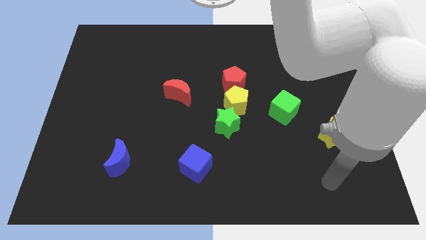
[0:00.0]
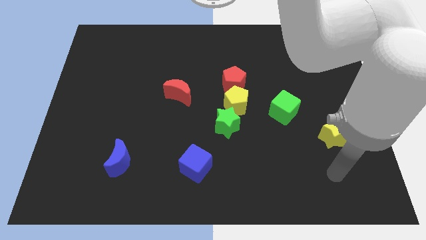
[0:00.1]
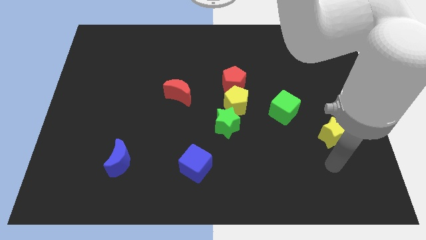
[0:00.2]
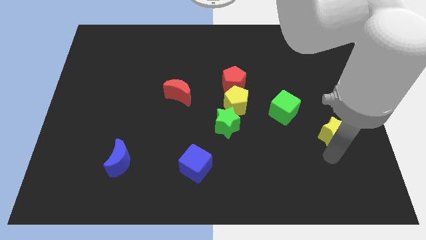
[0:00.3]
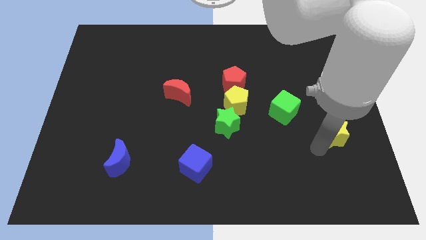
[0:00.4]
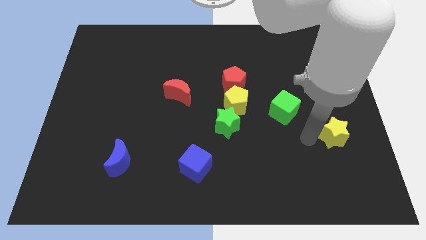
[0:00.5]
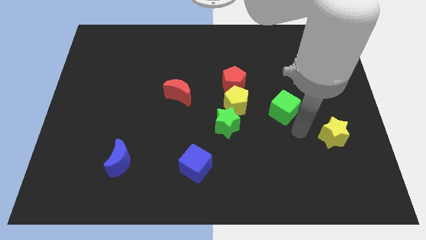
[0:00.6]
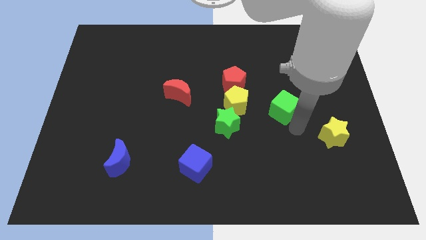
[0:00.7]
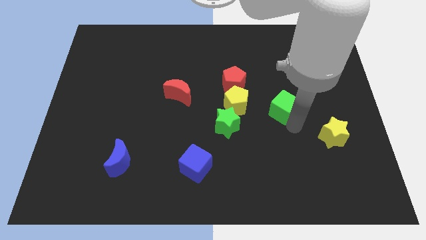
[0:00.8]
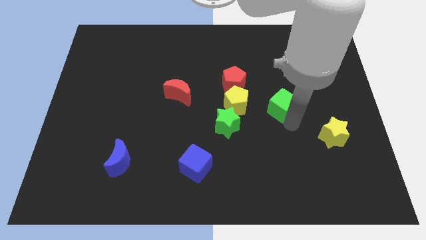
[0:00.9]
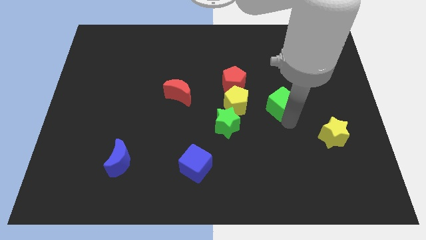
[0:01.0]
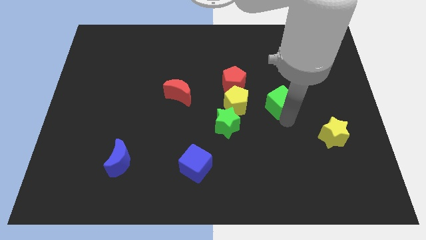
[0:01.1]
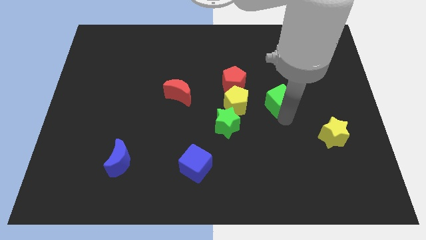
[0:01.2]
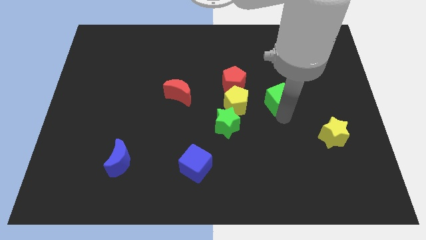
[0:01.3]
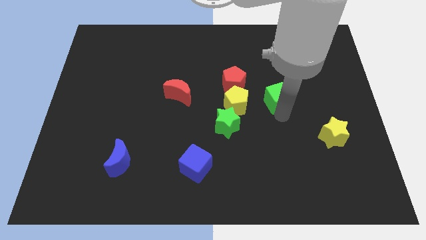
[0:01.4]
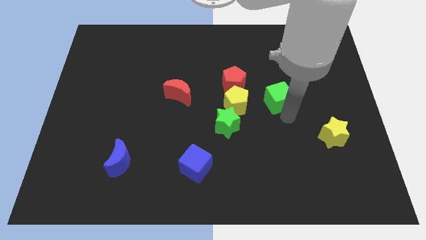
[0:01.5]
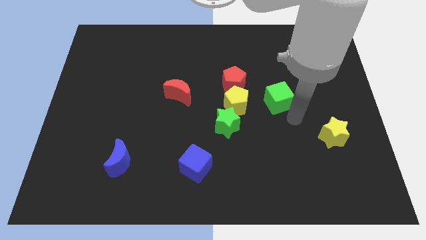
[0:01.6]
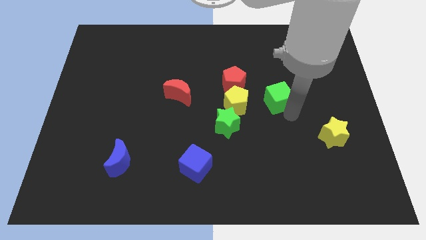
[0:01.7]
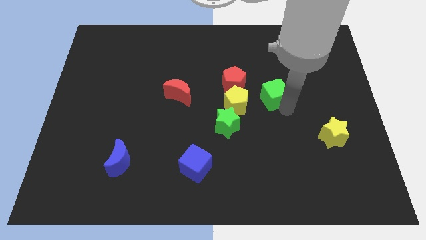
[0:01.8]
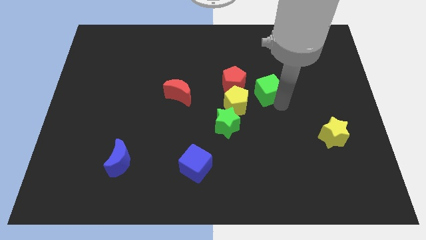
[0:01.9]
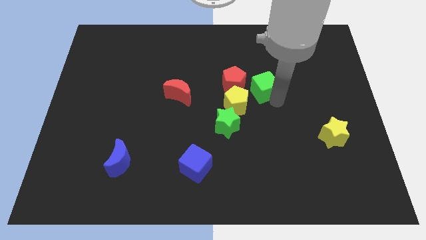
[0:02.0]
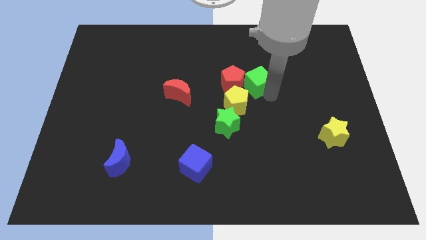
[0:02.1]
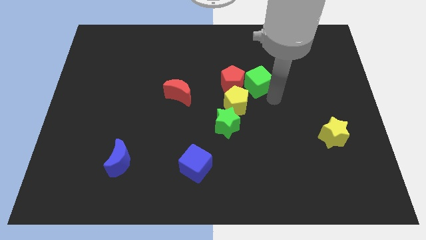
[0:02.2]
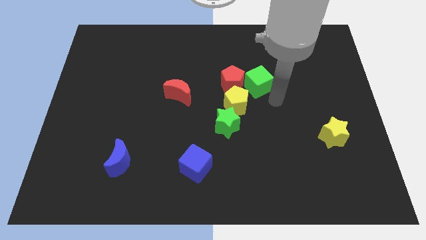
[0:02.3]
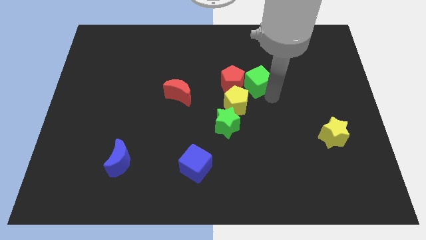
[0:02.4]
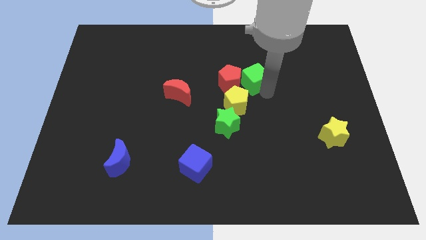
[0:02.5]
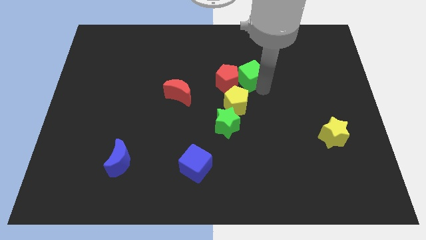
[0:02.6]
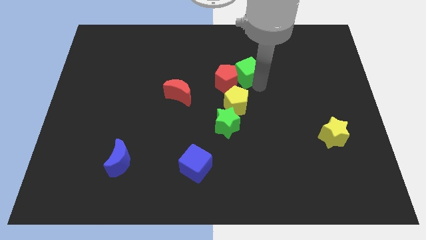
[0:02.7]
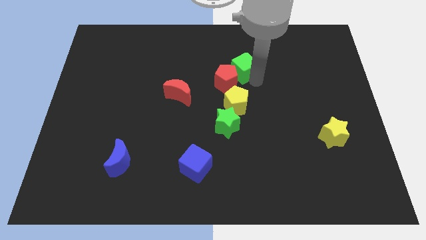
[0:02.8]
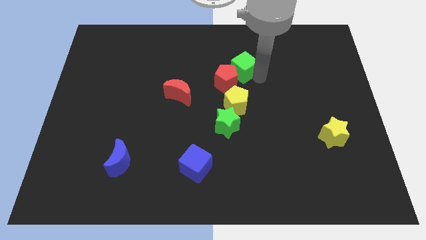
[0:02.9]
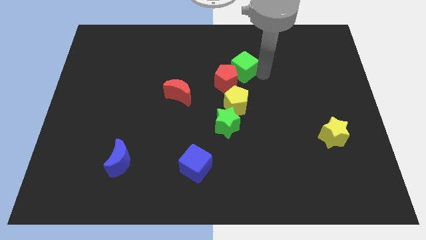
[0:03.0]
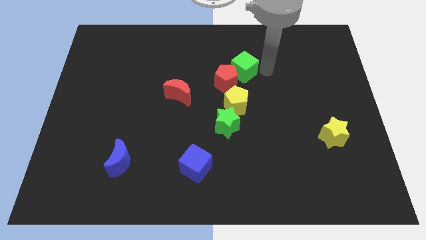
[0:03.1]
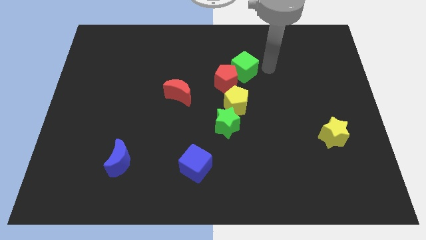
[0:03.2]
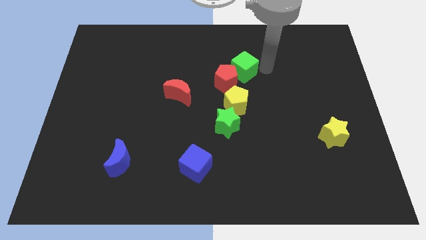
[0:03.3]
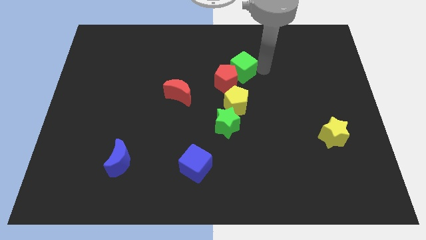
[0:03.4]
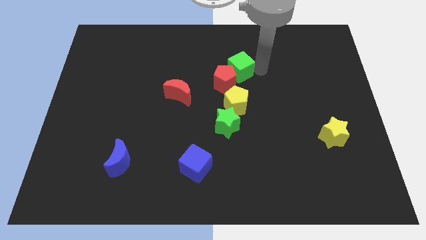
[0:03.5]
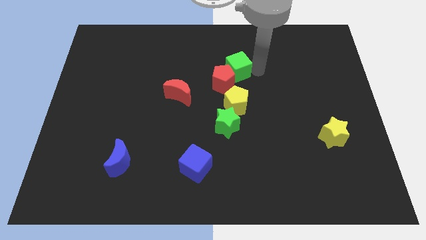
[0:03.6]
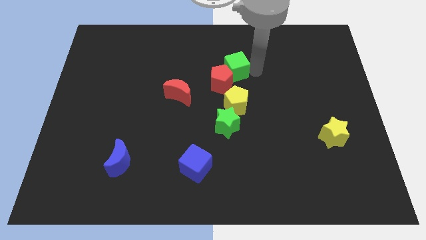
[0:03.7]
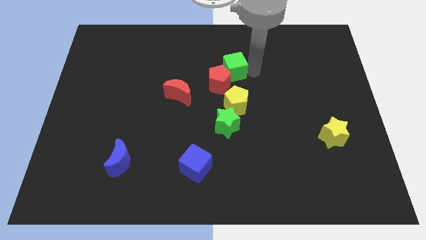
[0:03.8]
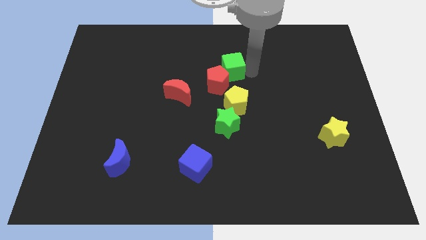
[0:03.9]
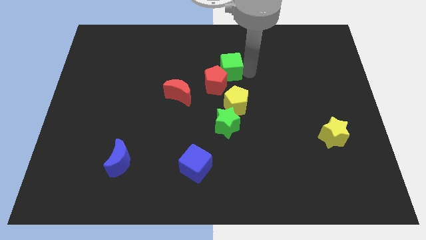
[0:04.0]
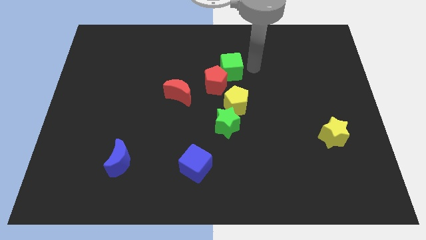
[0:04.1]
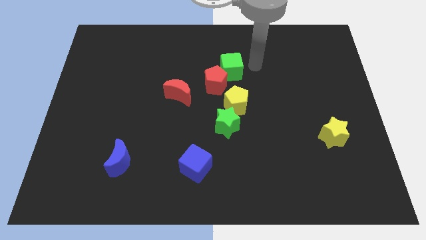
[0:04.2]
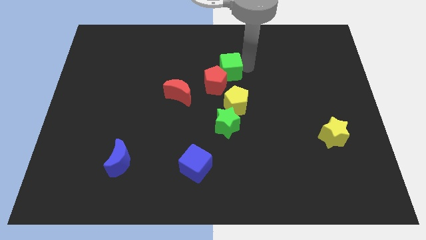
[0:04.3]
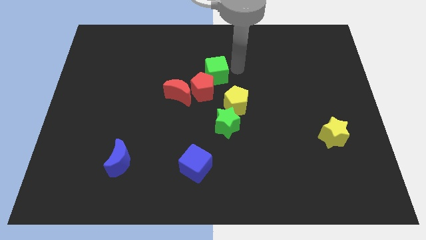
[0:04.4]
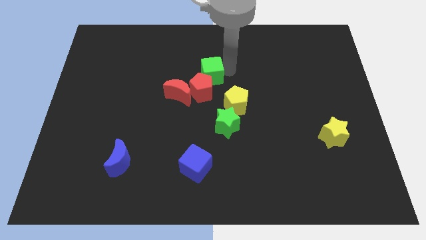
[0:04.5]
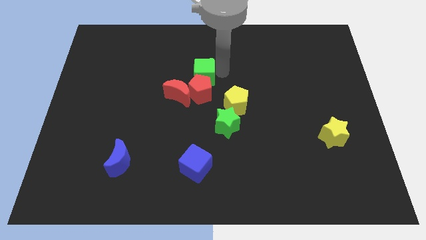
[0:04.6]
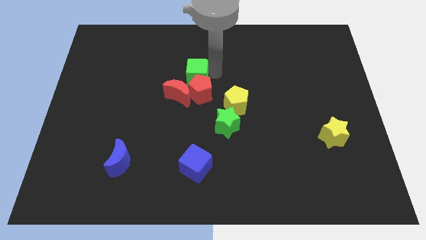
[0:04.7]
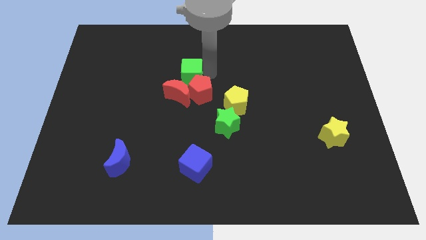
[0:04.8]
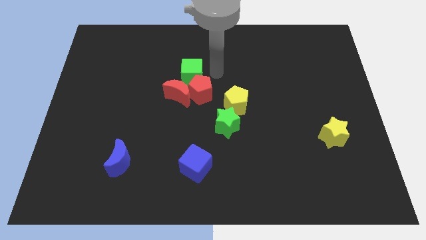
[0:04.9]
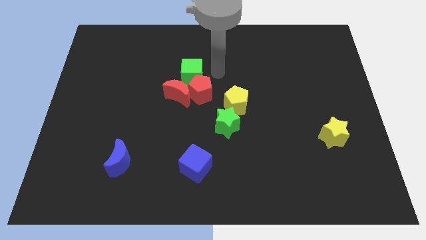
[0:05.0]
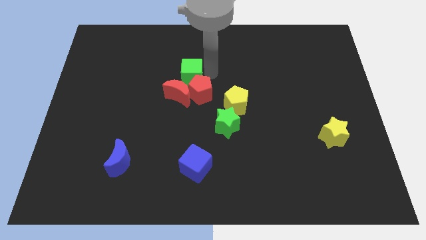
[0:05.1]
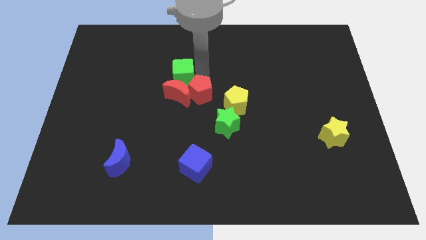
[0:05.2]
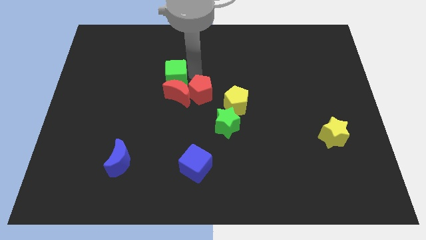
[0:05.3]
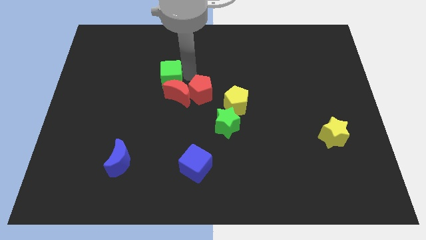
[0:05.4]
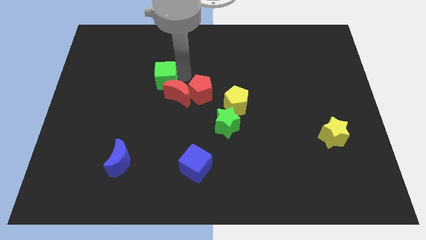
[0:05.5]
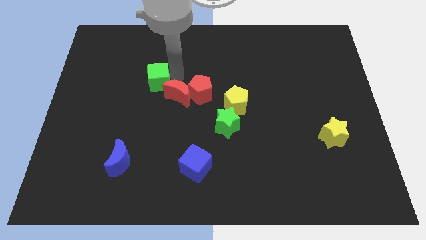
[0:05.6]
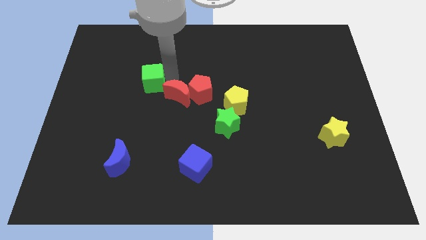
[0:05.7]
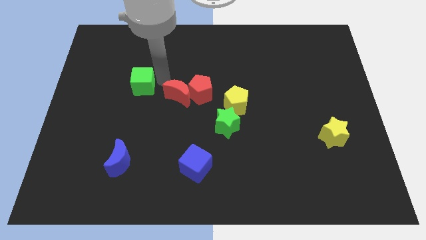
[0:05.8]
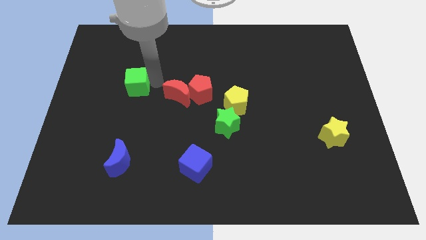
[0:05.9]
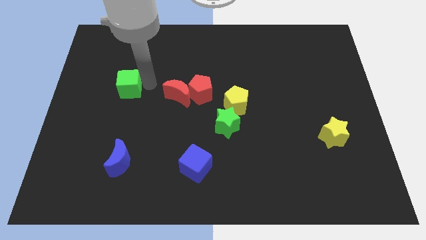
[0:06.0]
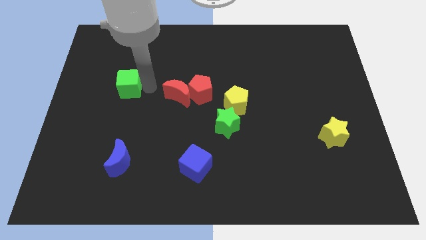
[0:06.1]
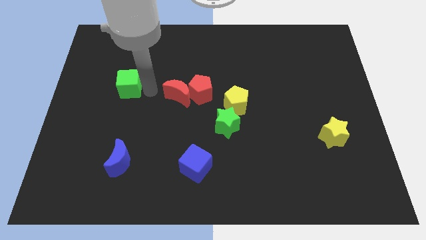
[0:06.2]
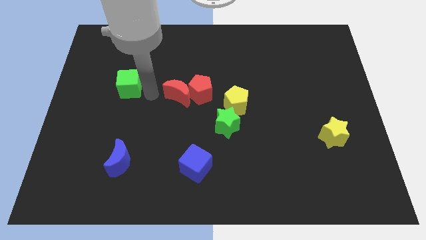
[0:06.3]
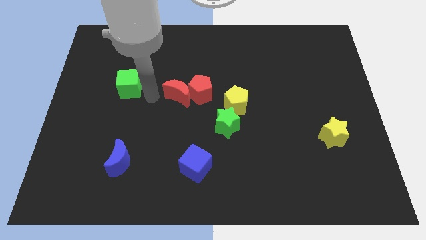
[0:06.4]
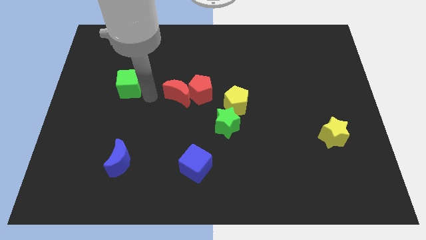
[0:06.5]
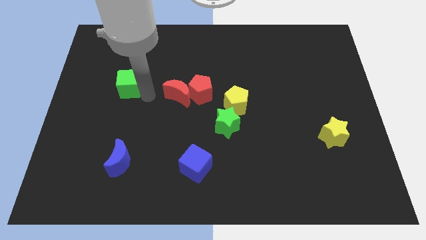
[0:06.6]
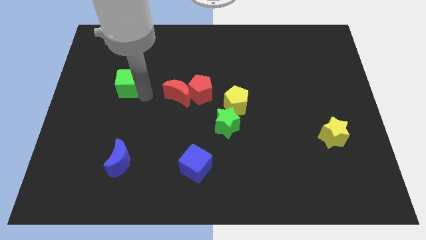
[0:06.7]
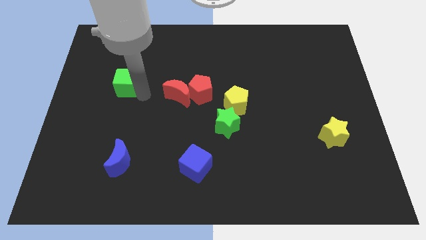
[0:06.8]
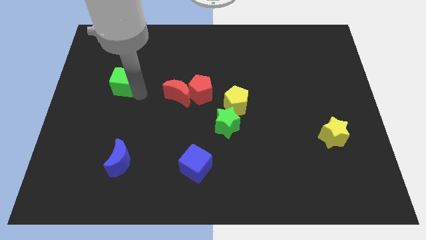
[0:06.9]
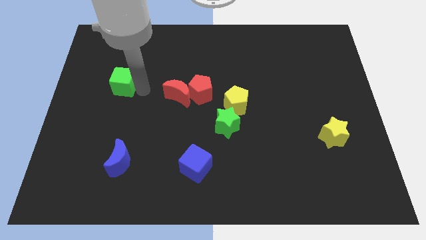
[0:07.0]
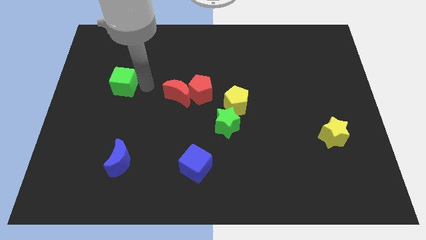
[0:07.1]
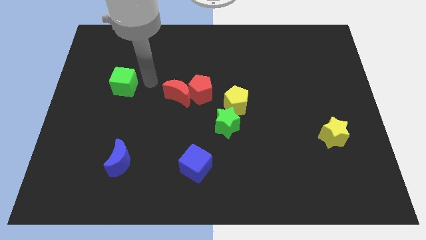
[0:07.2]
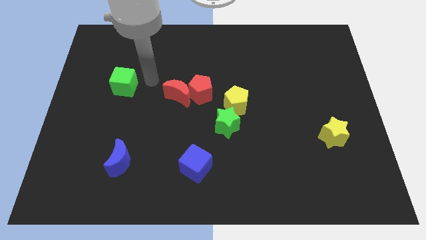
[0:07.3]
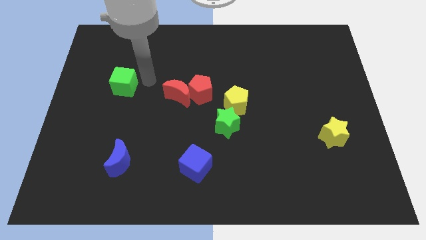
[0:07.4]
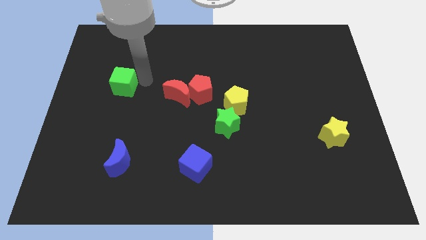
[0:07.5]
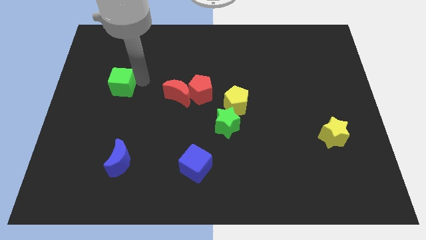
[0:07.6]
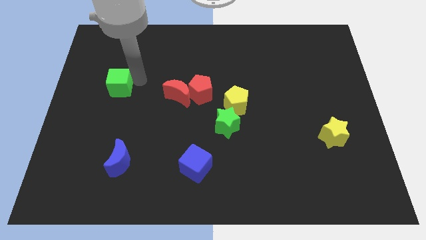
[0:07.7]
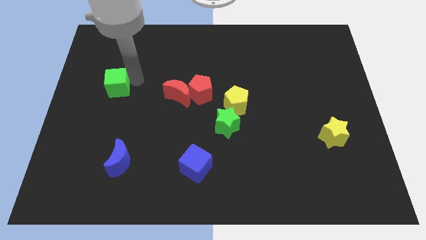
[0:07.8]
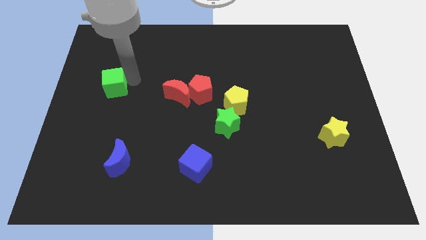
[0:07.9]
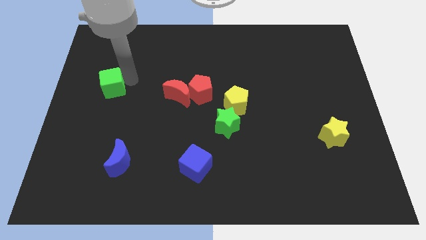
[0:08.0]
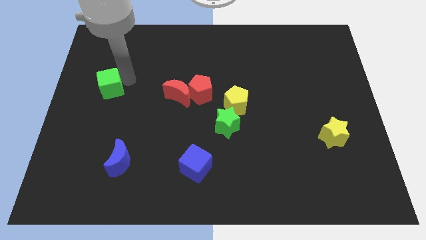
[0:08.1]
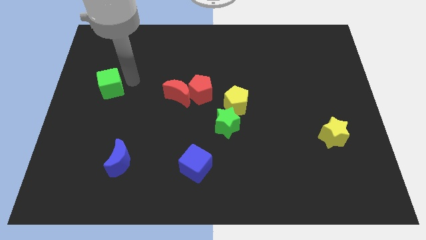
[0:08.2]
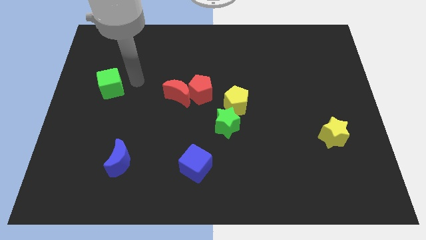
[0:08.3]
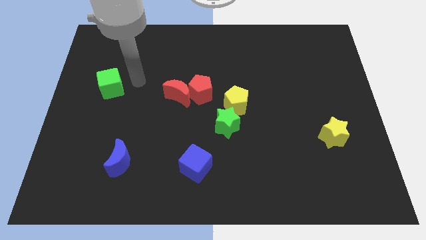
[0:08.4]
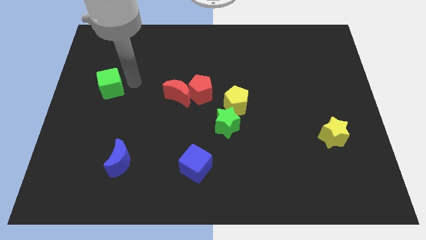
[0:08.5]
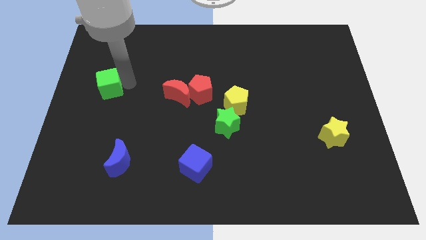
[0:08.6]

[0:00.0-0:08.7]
push the green cube to the left side
